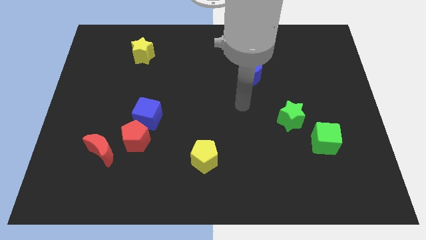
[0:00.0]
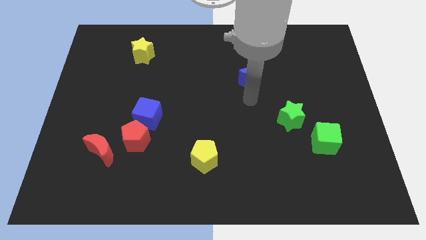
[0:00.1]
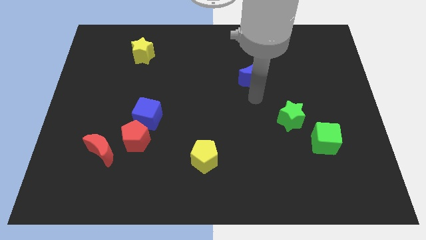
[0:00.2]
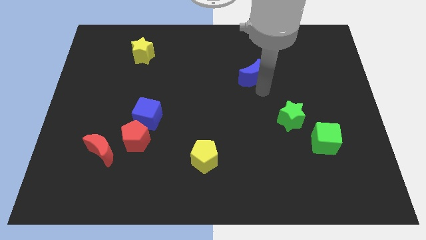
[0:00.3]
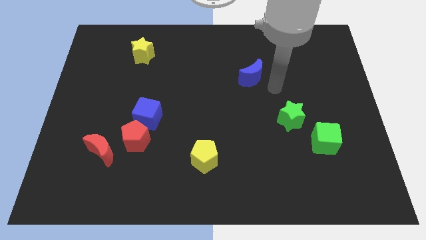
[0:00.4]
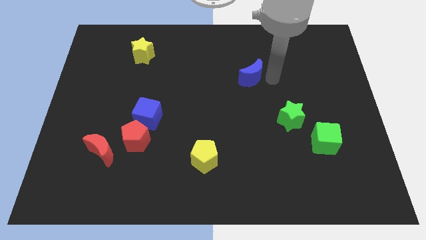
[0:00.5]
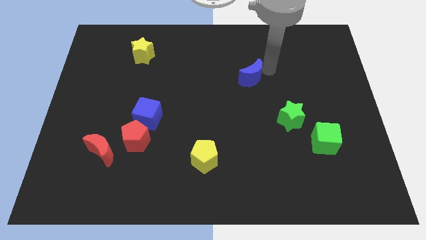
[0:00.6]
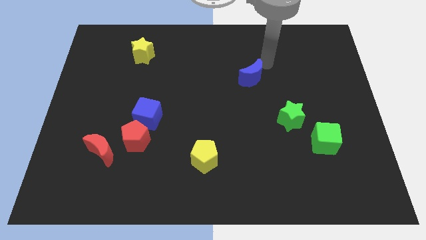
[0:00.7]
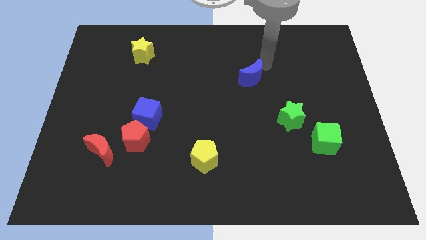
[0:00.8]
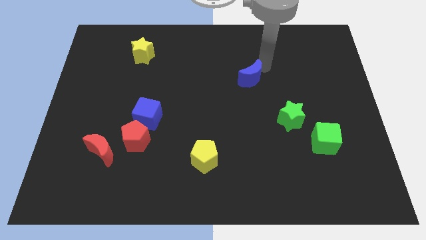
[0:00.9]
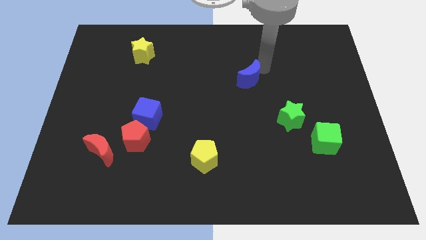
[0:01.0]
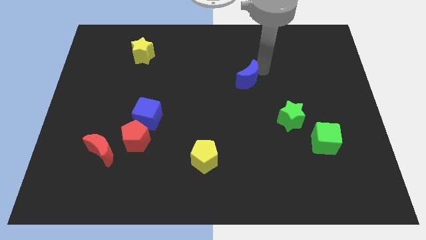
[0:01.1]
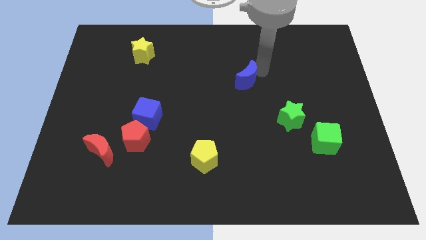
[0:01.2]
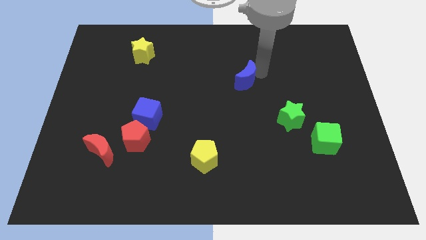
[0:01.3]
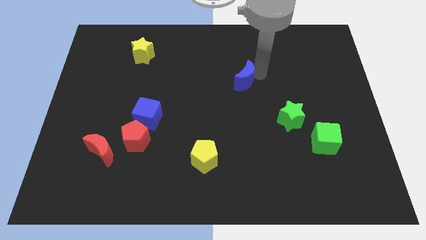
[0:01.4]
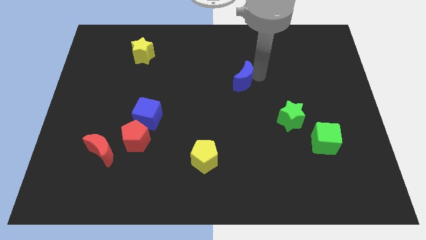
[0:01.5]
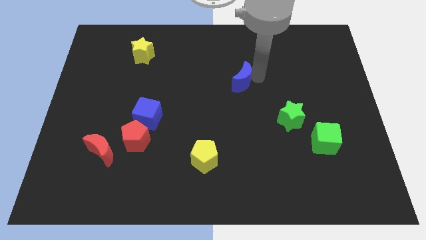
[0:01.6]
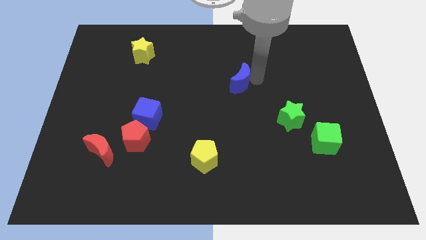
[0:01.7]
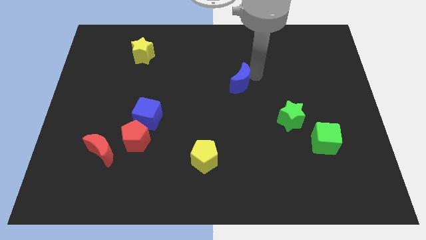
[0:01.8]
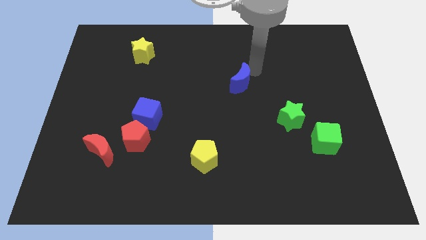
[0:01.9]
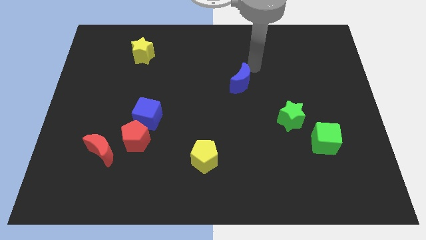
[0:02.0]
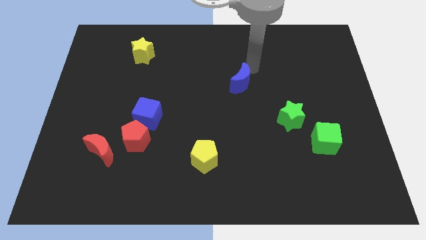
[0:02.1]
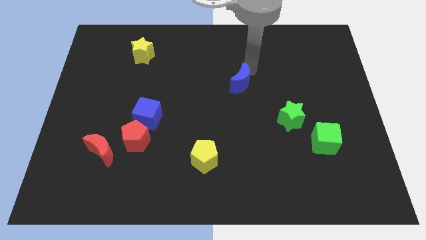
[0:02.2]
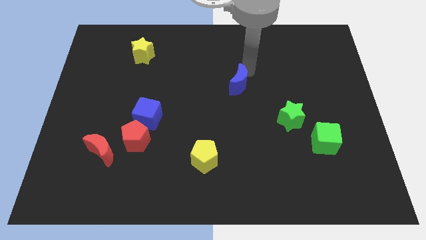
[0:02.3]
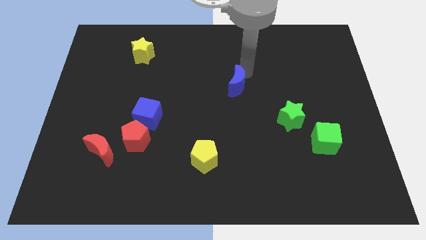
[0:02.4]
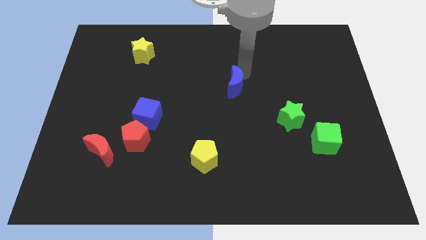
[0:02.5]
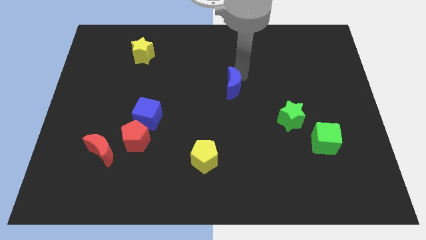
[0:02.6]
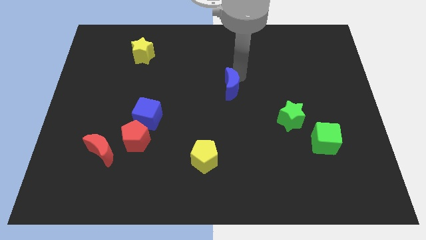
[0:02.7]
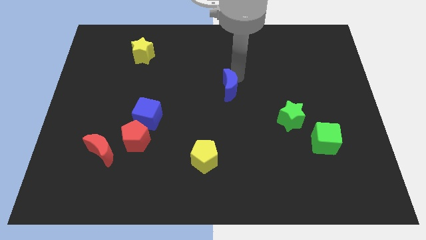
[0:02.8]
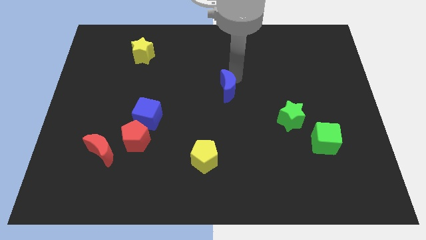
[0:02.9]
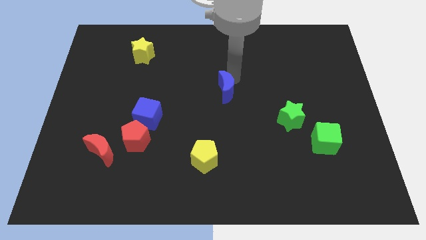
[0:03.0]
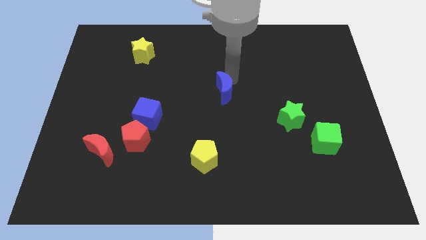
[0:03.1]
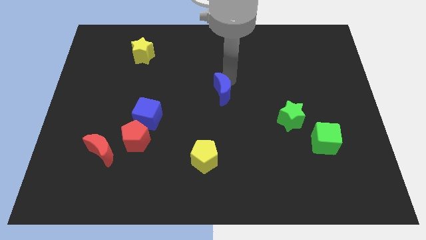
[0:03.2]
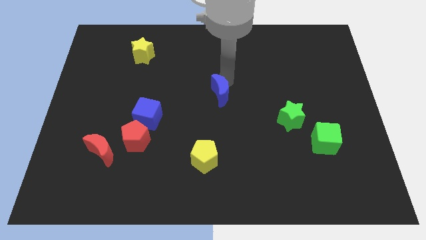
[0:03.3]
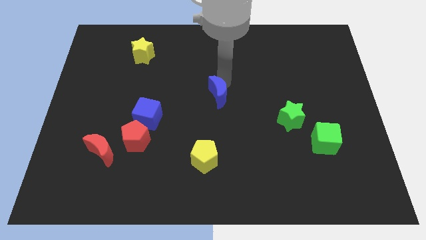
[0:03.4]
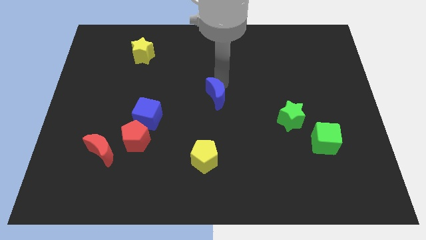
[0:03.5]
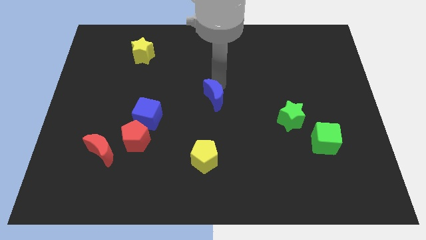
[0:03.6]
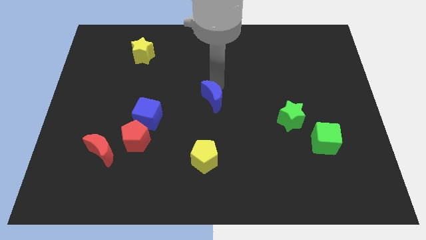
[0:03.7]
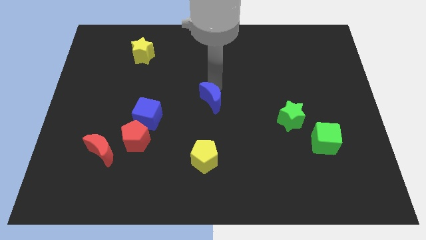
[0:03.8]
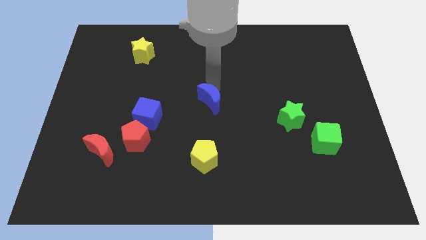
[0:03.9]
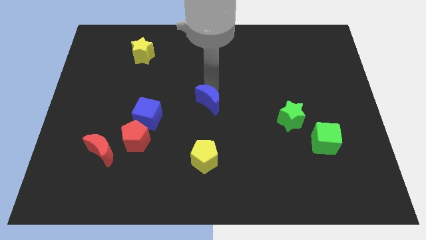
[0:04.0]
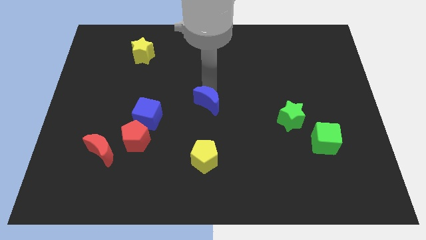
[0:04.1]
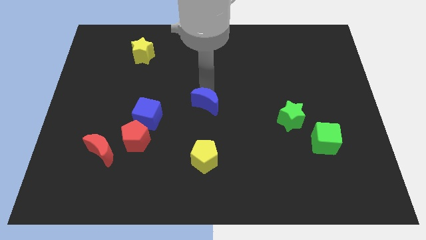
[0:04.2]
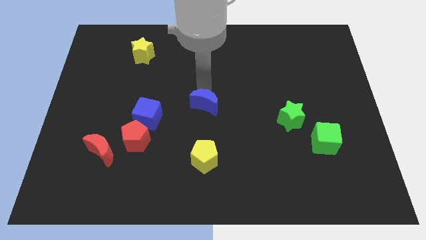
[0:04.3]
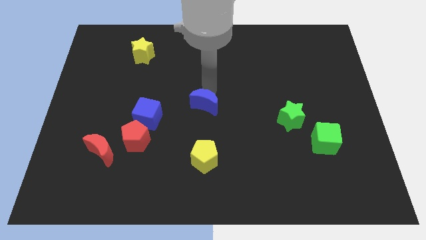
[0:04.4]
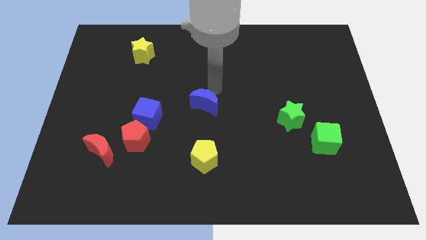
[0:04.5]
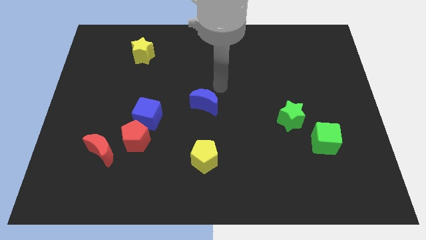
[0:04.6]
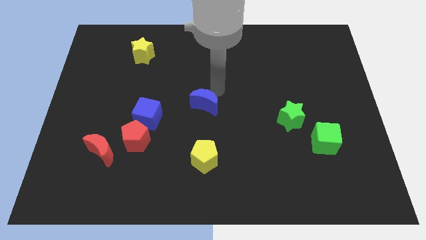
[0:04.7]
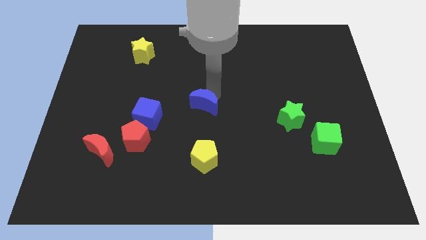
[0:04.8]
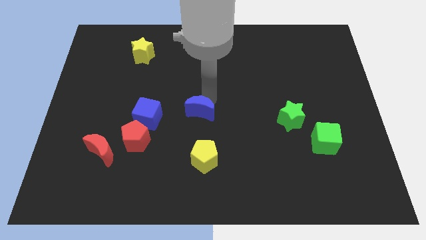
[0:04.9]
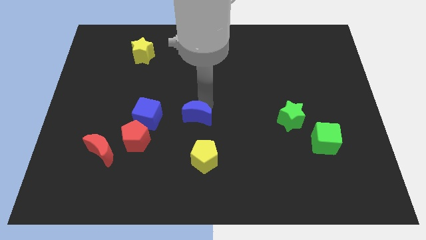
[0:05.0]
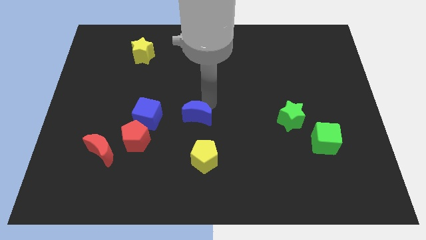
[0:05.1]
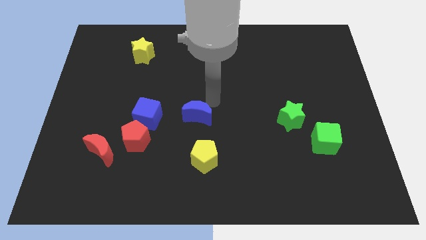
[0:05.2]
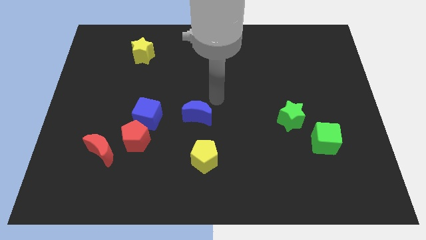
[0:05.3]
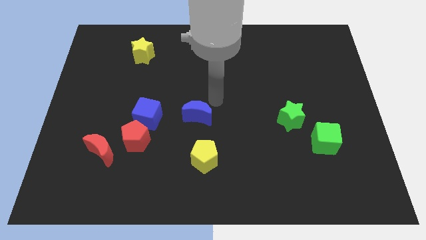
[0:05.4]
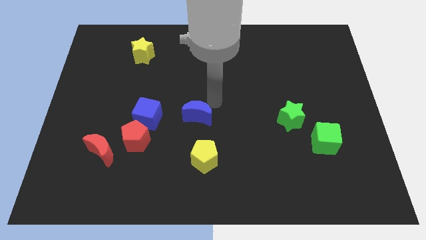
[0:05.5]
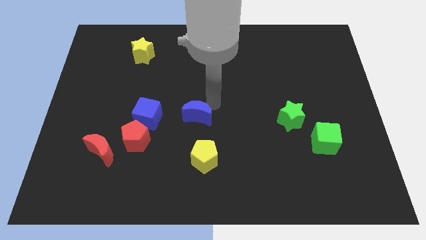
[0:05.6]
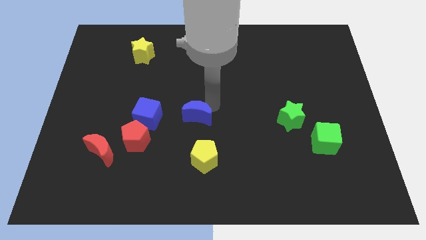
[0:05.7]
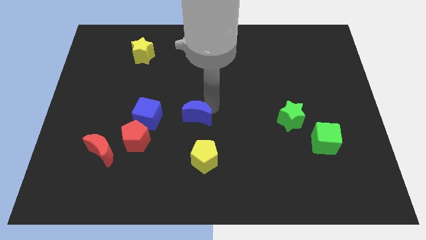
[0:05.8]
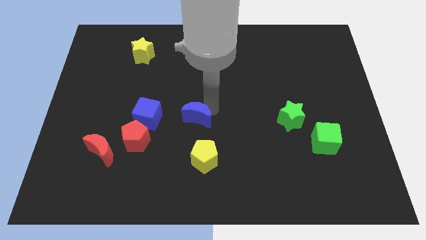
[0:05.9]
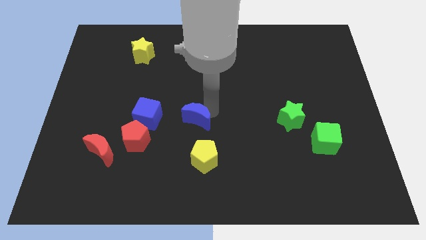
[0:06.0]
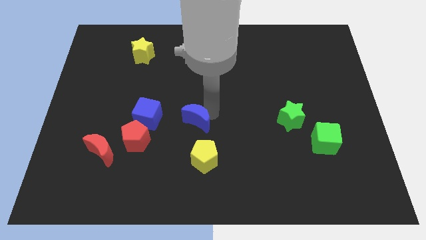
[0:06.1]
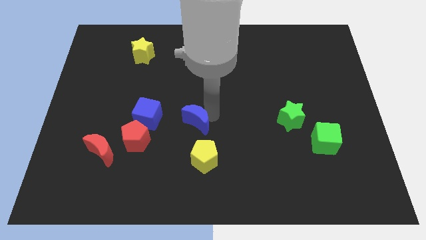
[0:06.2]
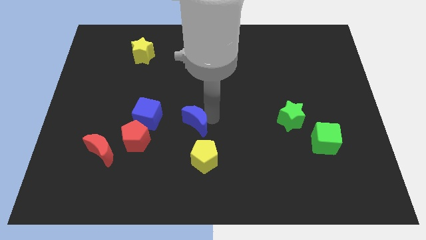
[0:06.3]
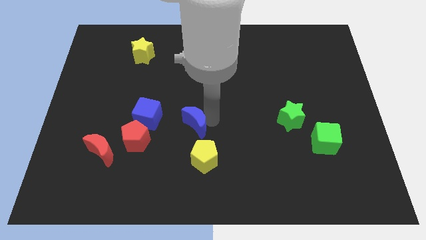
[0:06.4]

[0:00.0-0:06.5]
move the blue moon downwards and then left

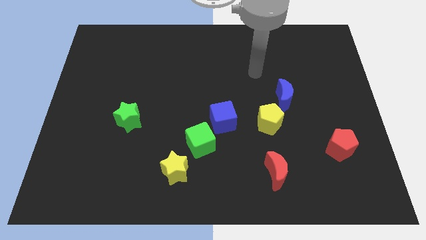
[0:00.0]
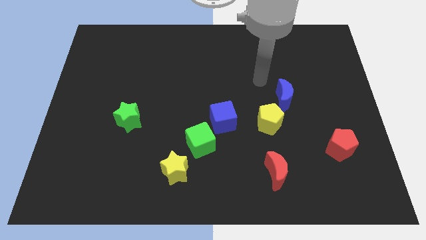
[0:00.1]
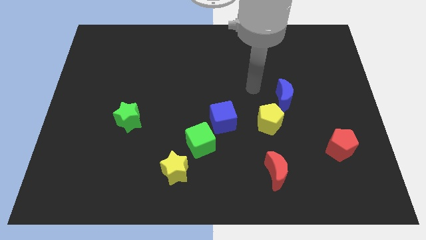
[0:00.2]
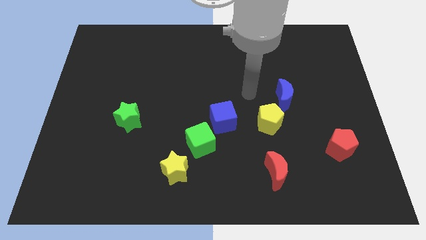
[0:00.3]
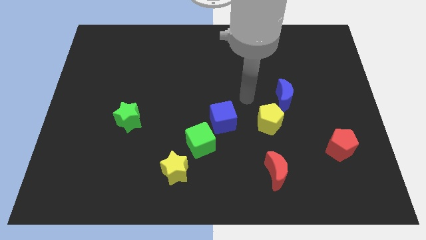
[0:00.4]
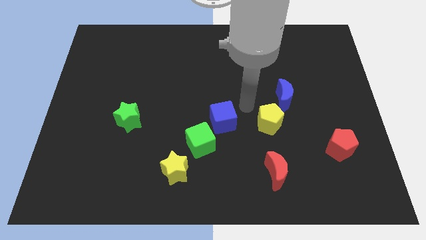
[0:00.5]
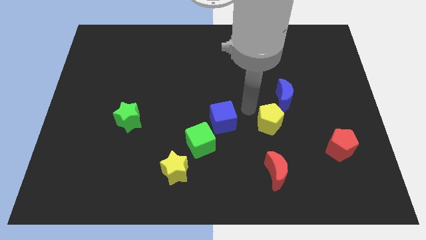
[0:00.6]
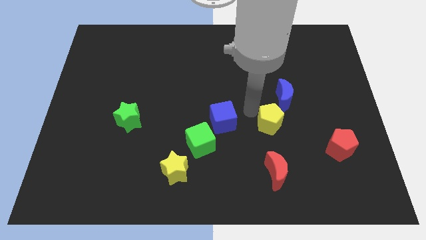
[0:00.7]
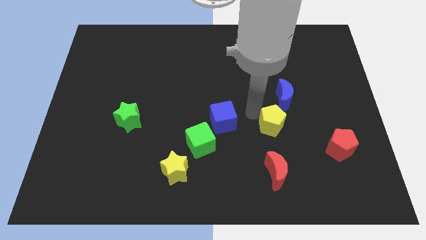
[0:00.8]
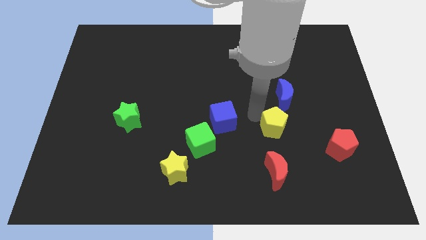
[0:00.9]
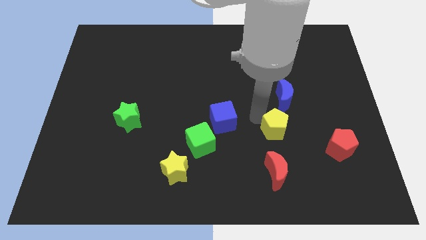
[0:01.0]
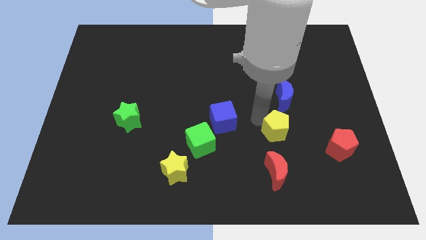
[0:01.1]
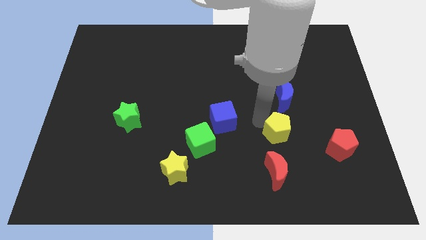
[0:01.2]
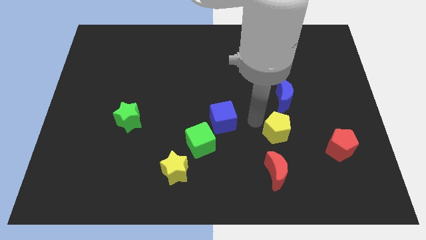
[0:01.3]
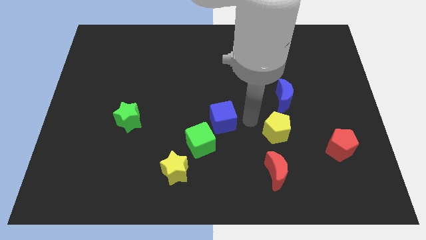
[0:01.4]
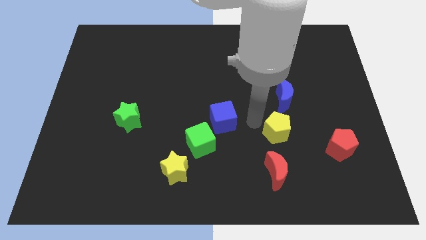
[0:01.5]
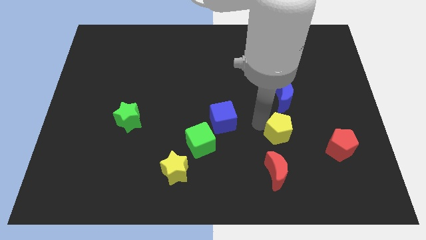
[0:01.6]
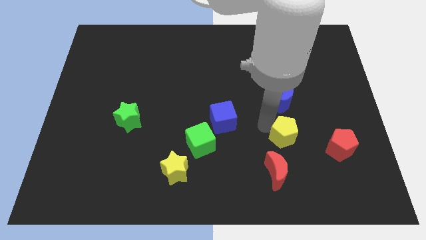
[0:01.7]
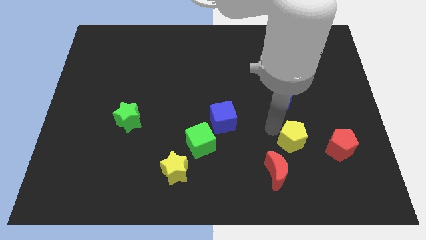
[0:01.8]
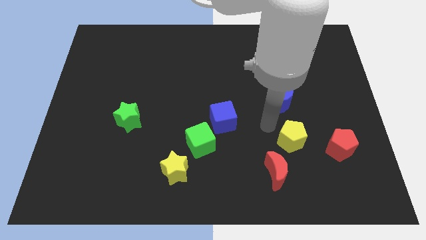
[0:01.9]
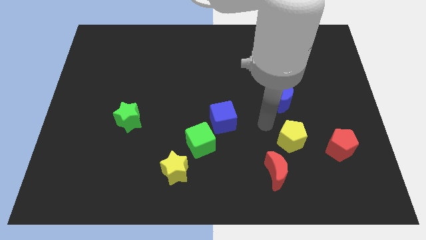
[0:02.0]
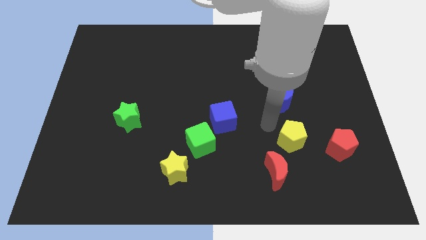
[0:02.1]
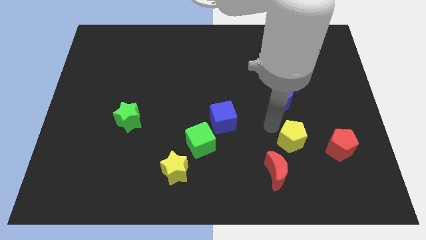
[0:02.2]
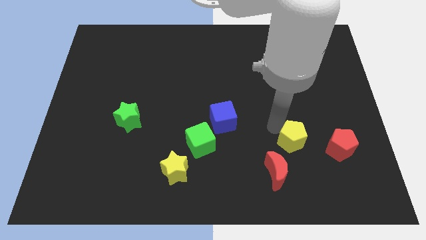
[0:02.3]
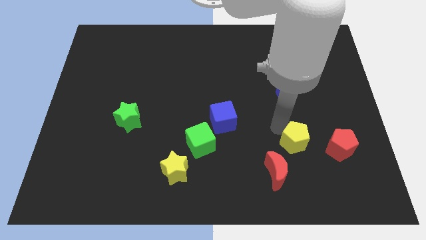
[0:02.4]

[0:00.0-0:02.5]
slightly push the yellow pentagon downwards and then to the right

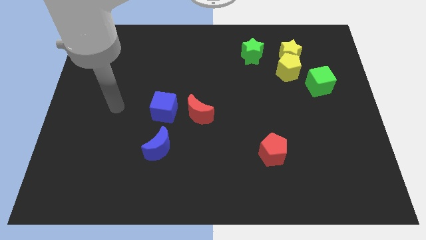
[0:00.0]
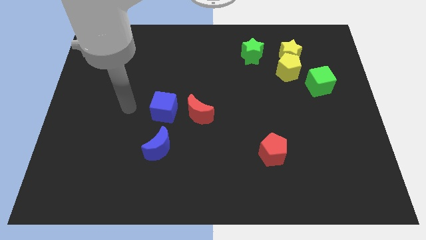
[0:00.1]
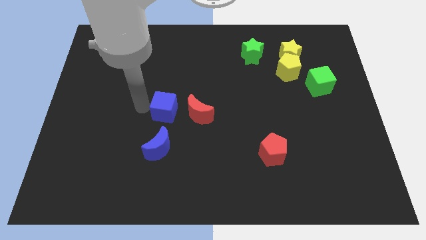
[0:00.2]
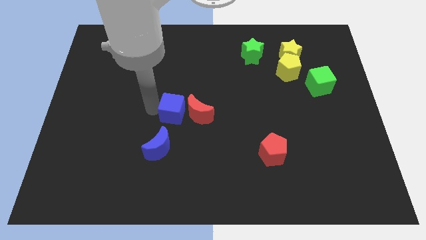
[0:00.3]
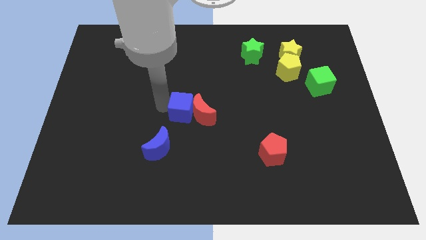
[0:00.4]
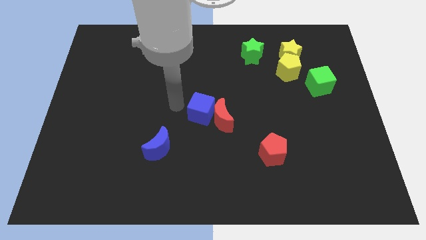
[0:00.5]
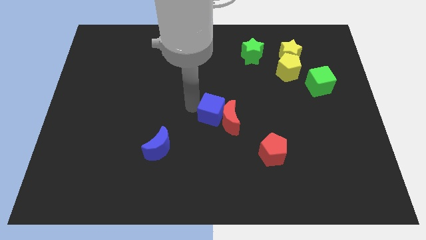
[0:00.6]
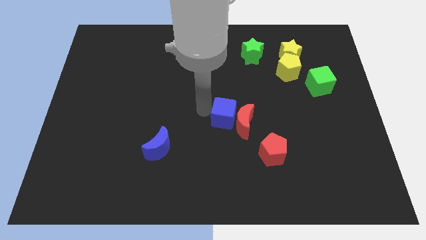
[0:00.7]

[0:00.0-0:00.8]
slightly move the red moon downwards and to the right
